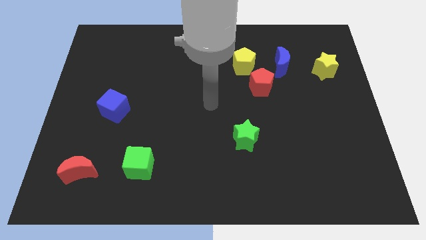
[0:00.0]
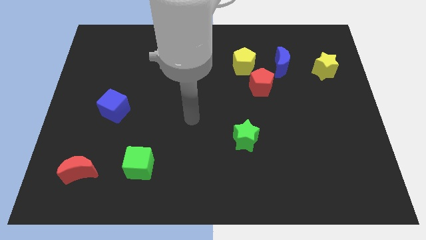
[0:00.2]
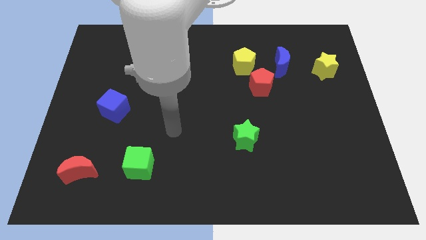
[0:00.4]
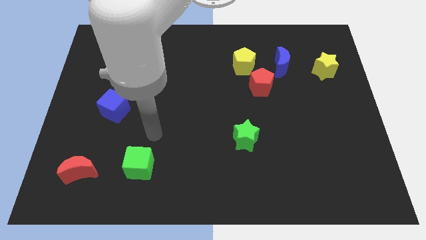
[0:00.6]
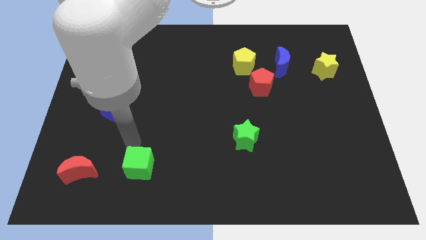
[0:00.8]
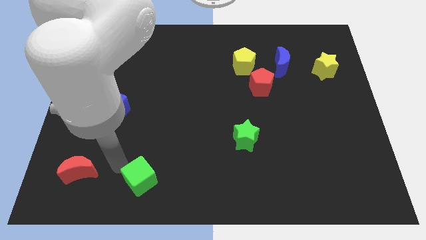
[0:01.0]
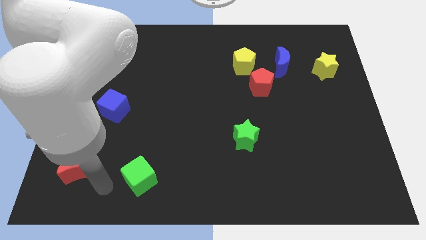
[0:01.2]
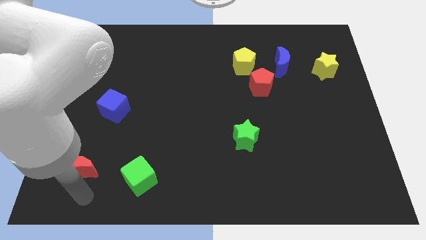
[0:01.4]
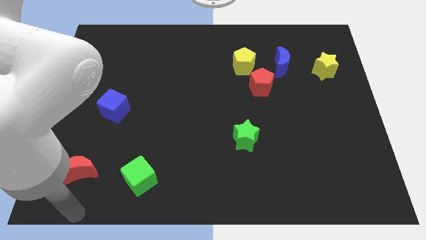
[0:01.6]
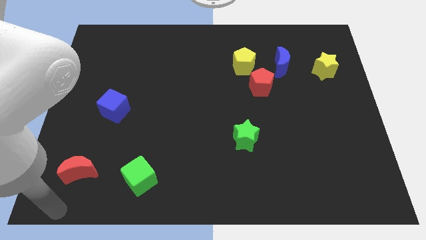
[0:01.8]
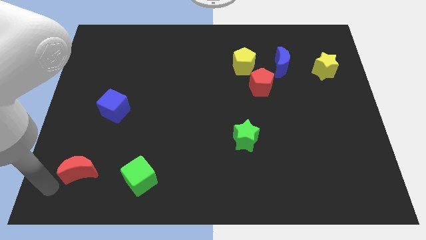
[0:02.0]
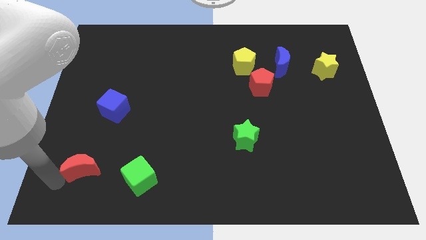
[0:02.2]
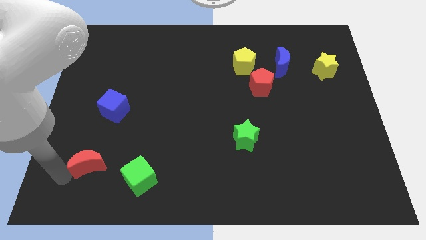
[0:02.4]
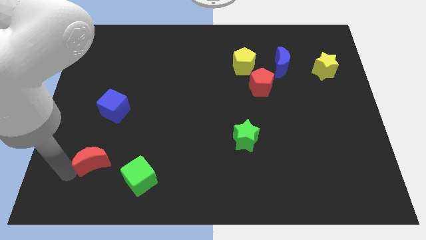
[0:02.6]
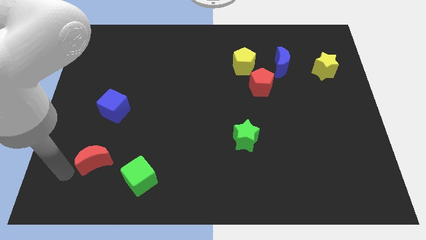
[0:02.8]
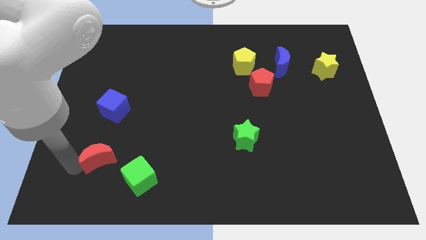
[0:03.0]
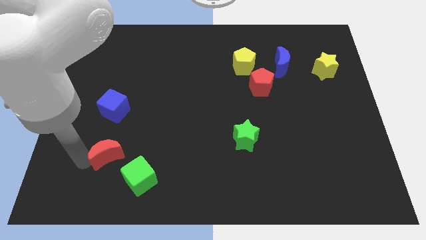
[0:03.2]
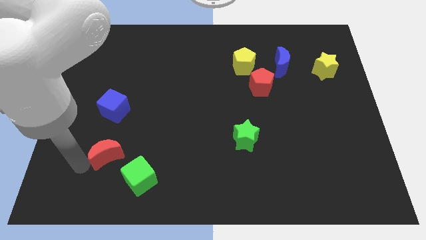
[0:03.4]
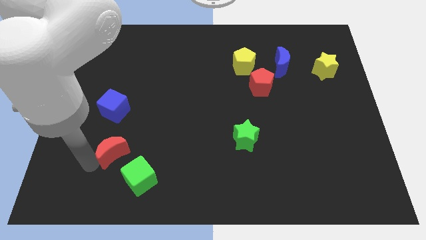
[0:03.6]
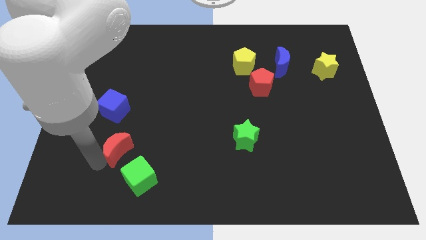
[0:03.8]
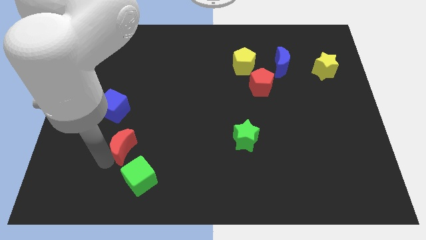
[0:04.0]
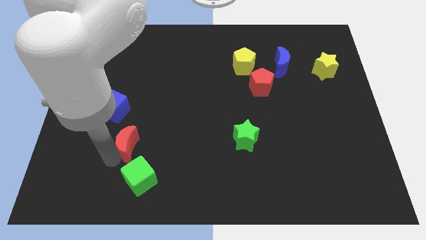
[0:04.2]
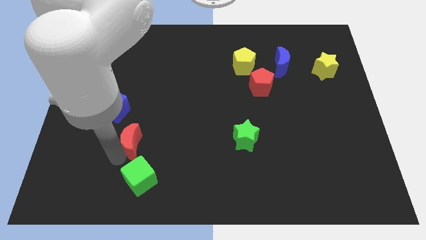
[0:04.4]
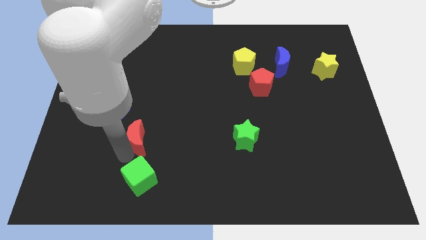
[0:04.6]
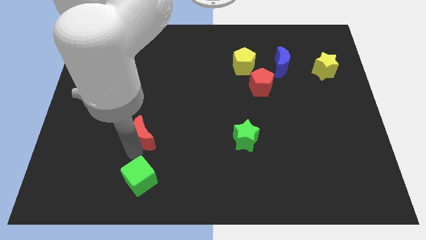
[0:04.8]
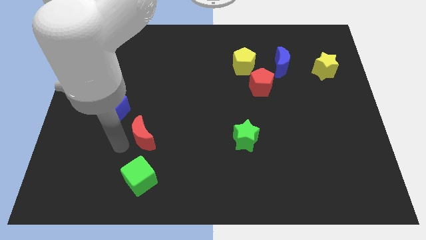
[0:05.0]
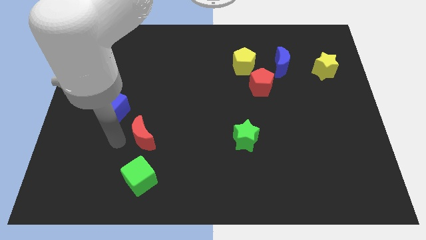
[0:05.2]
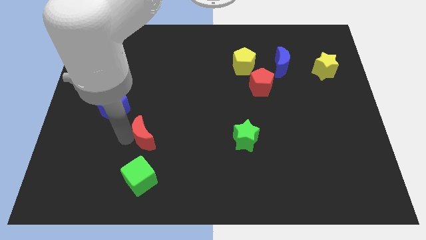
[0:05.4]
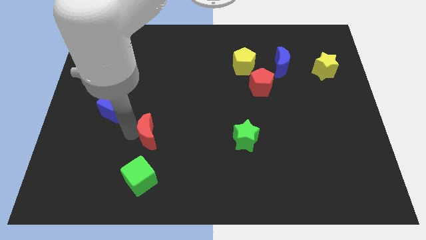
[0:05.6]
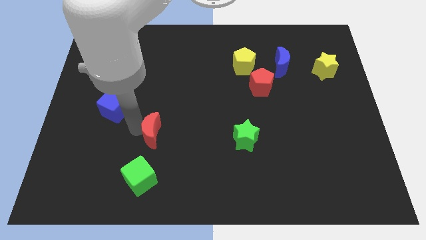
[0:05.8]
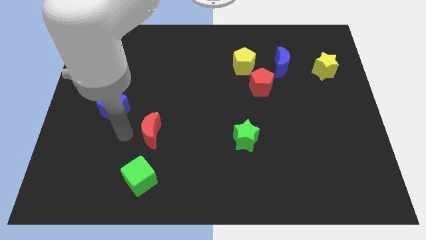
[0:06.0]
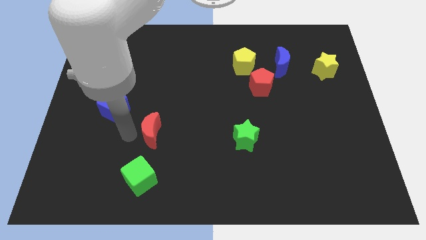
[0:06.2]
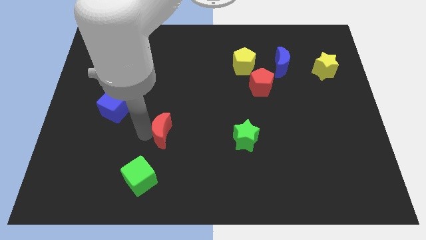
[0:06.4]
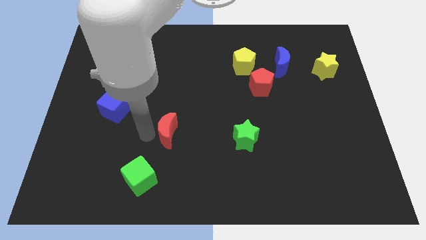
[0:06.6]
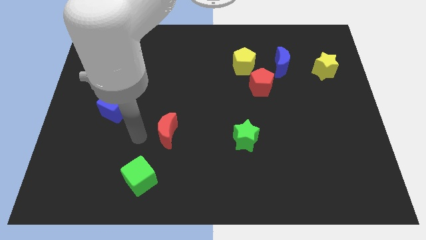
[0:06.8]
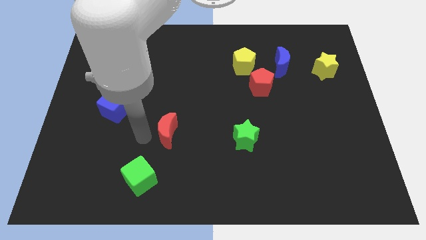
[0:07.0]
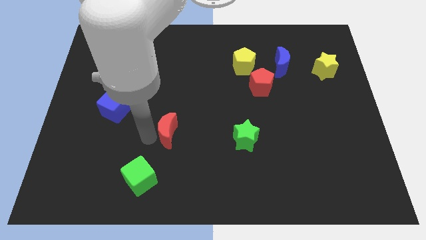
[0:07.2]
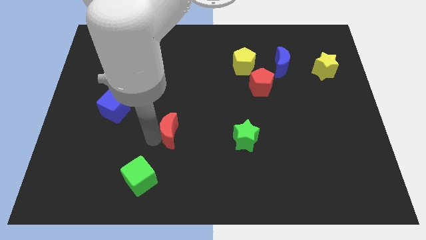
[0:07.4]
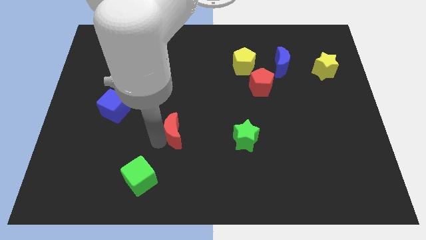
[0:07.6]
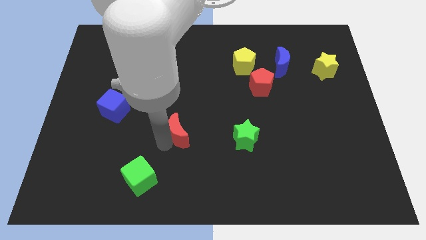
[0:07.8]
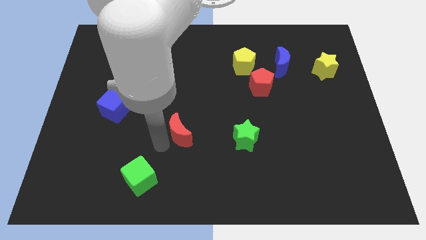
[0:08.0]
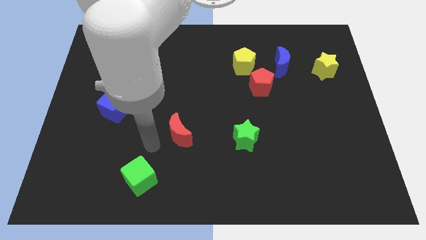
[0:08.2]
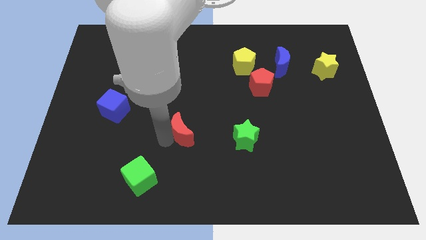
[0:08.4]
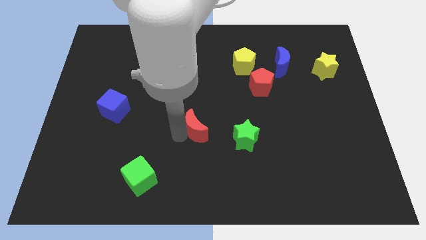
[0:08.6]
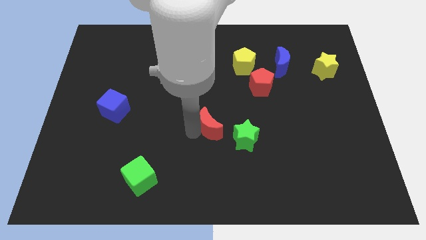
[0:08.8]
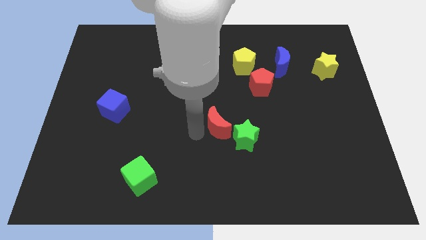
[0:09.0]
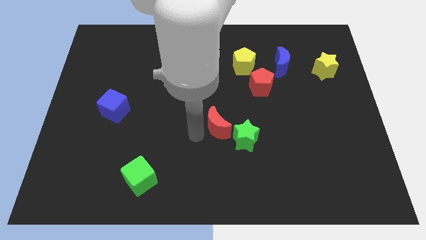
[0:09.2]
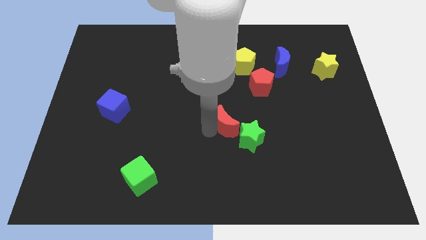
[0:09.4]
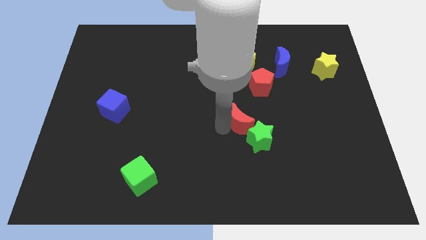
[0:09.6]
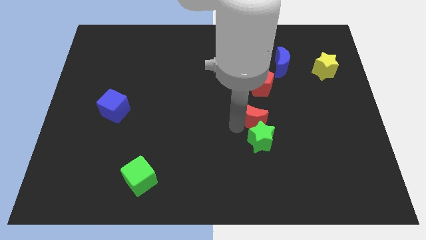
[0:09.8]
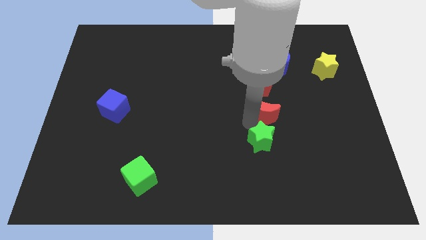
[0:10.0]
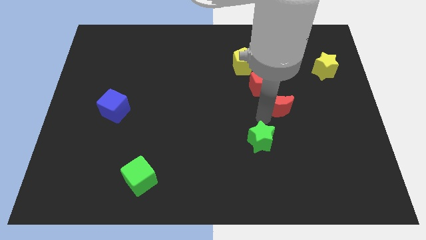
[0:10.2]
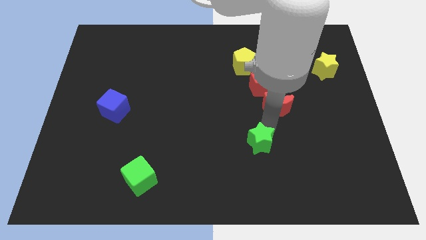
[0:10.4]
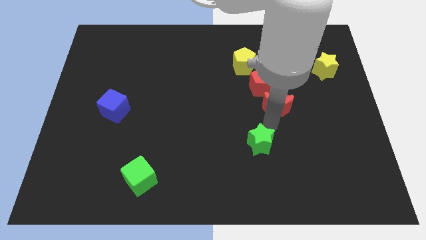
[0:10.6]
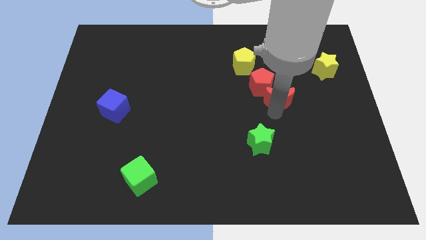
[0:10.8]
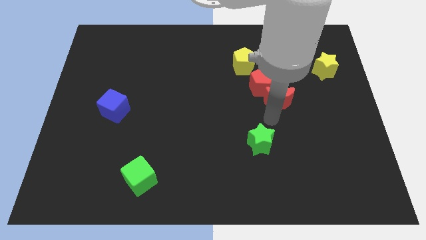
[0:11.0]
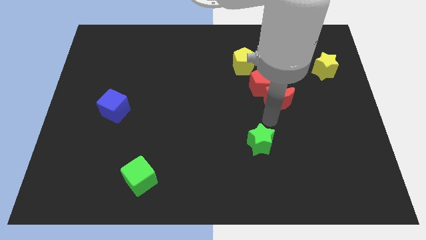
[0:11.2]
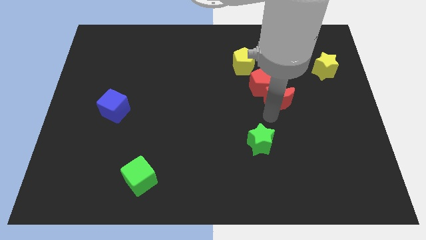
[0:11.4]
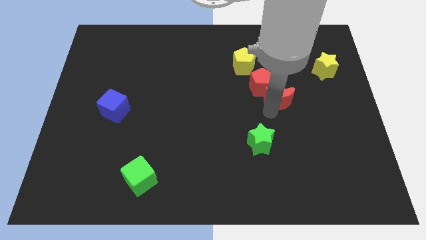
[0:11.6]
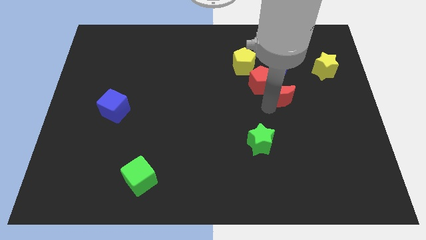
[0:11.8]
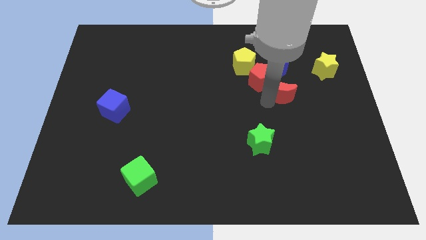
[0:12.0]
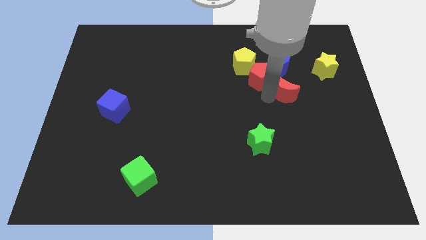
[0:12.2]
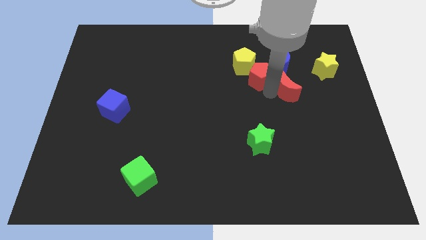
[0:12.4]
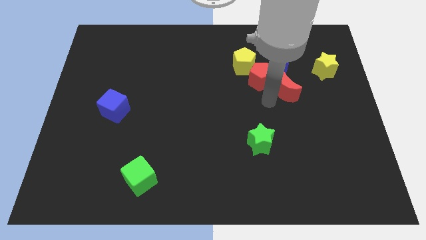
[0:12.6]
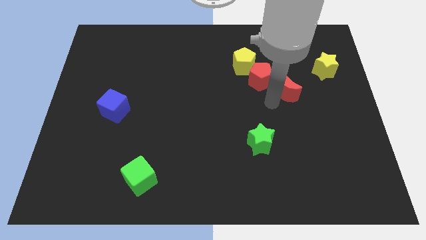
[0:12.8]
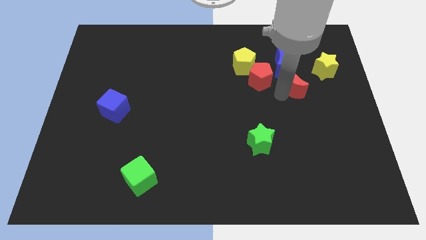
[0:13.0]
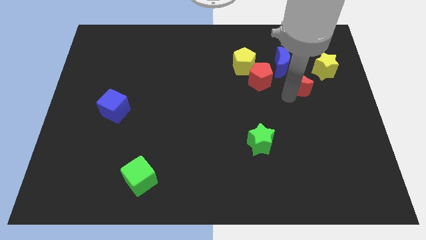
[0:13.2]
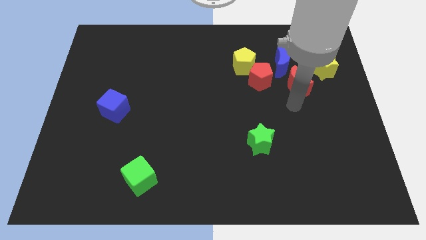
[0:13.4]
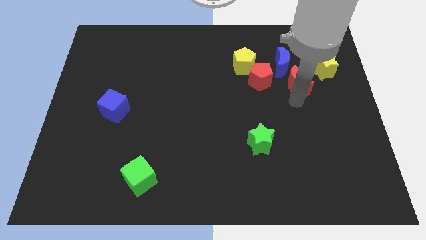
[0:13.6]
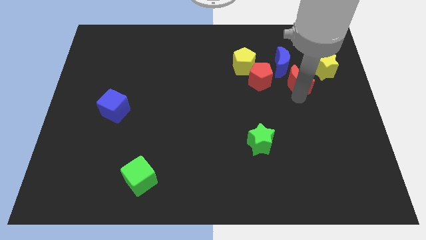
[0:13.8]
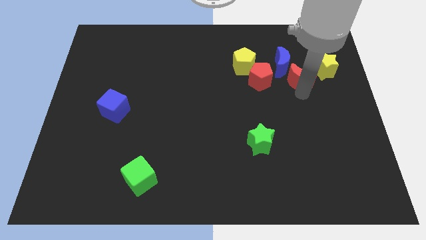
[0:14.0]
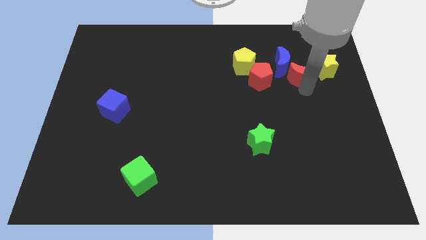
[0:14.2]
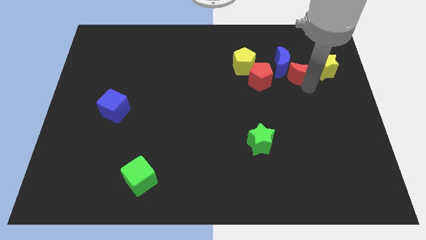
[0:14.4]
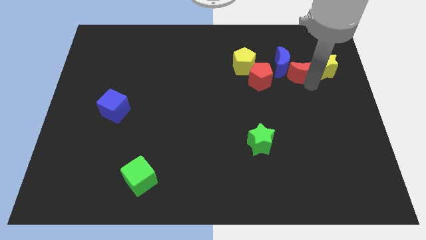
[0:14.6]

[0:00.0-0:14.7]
push the red moon just right of the yellow pentagon
